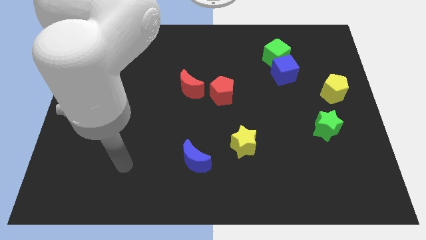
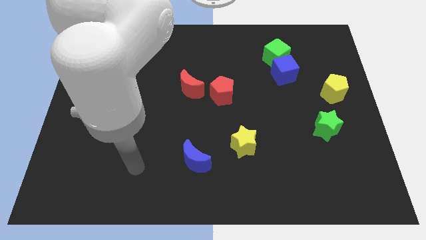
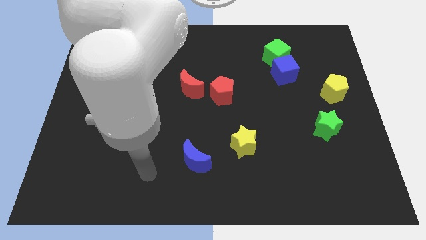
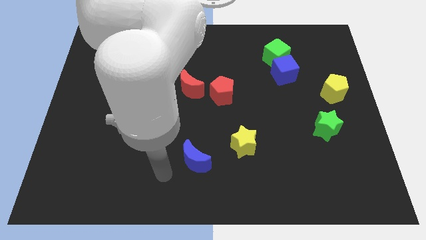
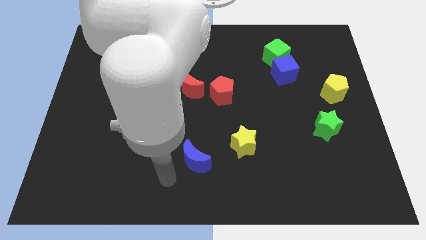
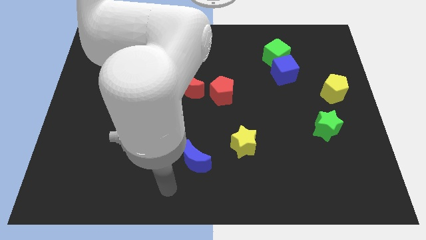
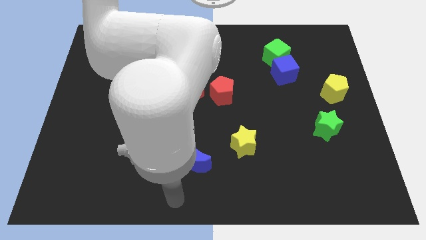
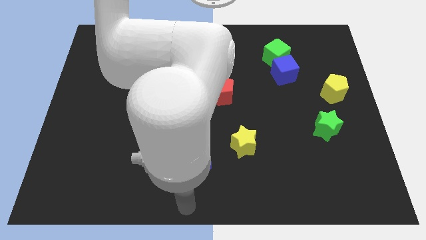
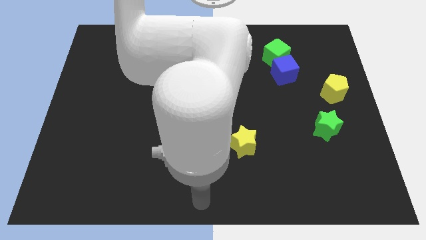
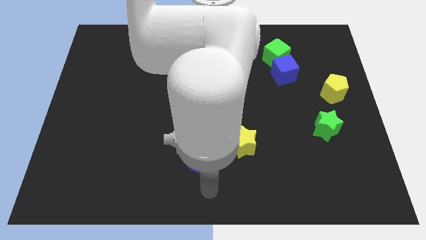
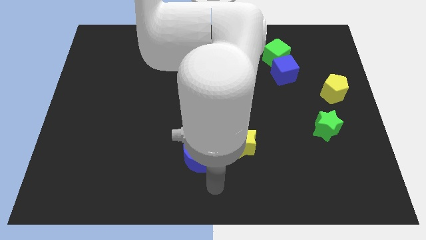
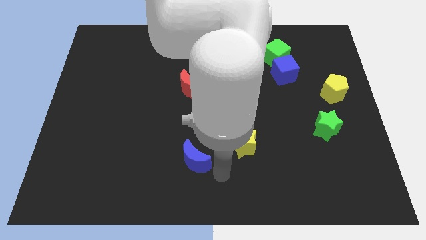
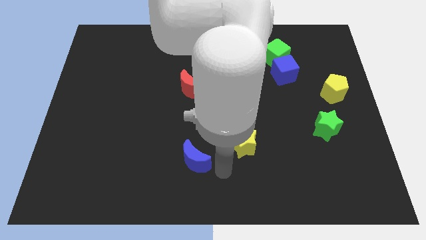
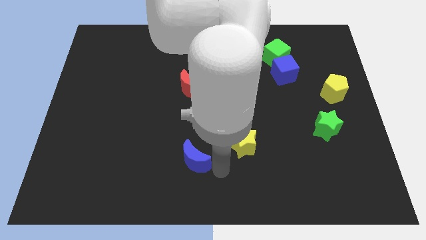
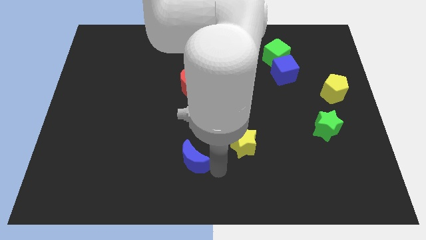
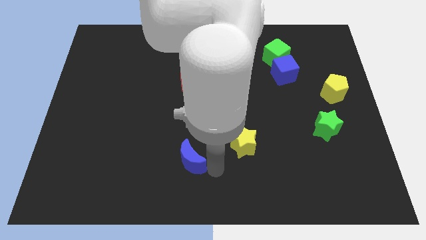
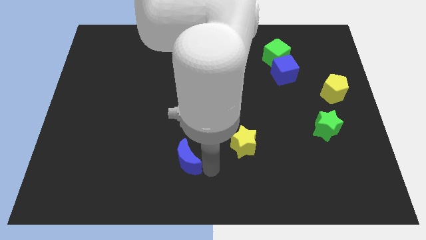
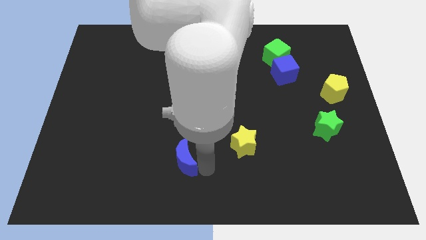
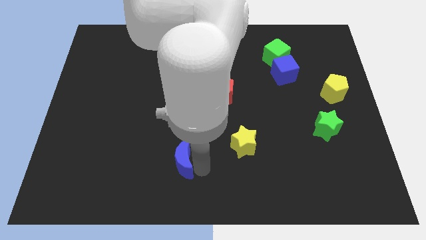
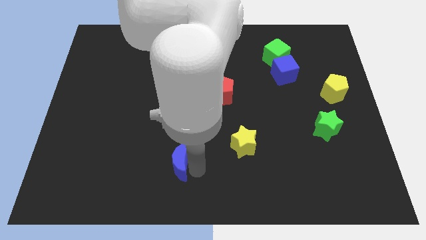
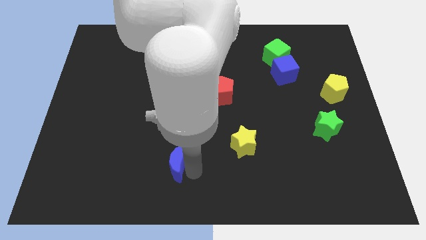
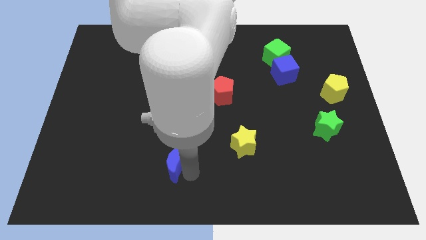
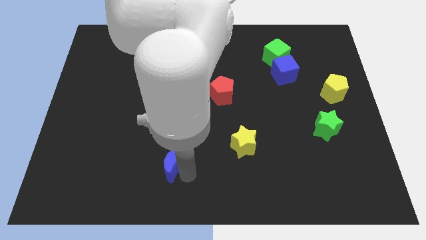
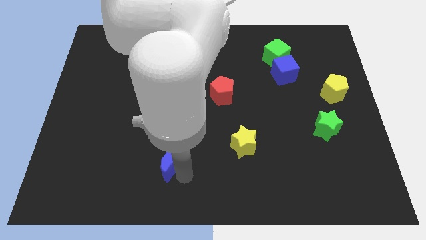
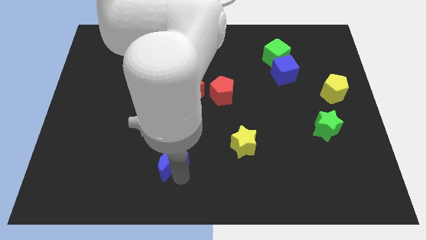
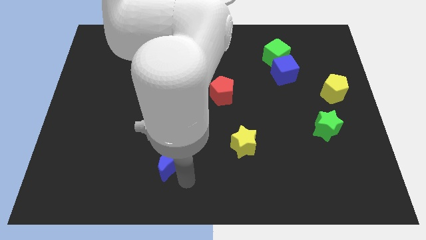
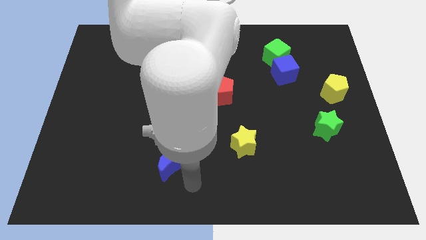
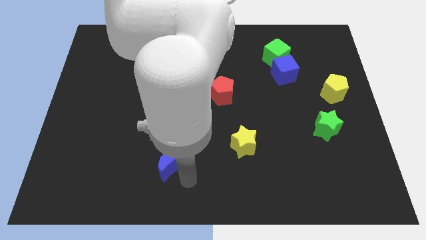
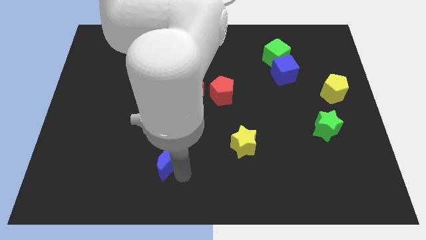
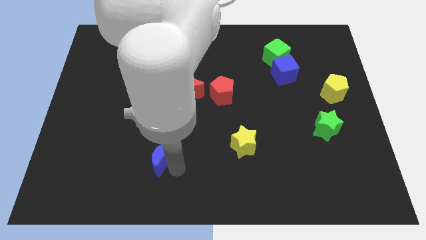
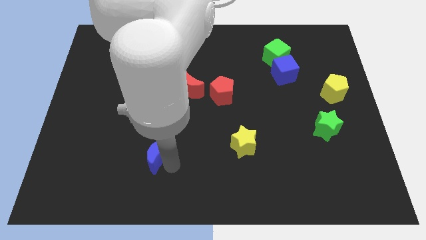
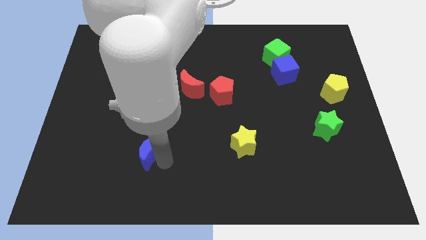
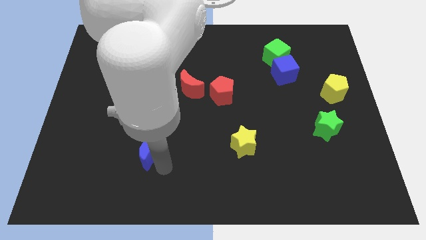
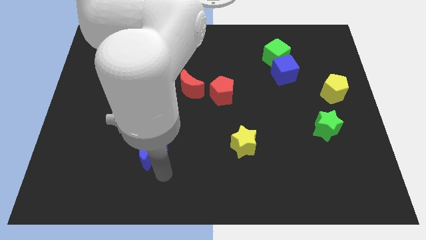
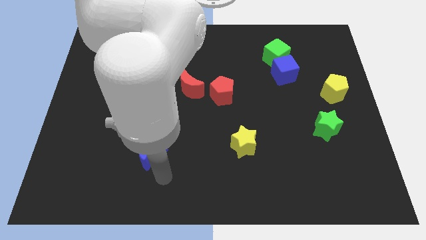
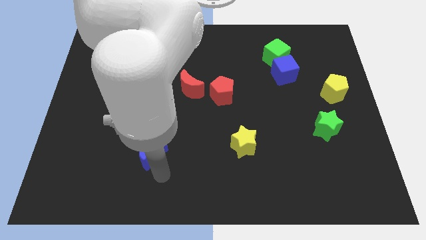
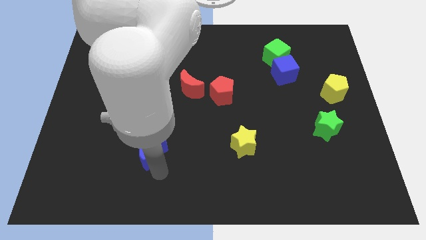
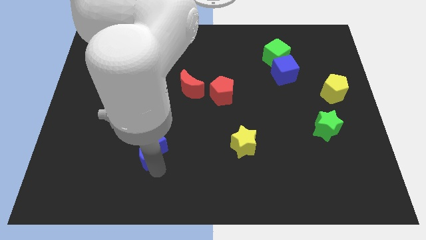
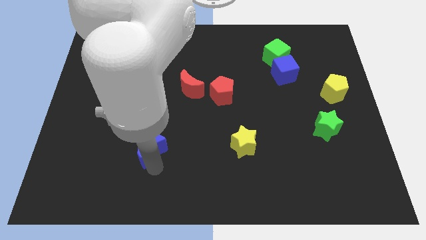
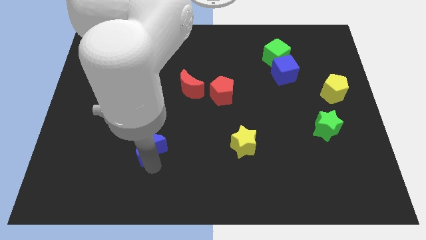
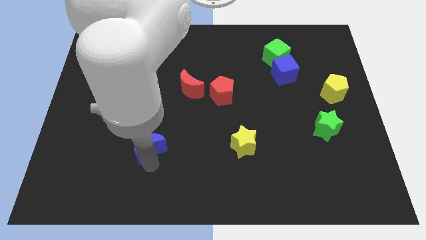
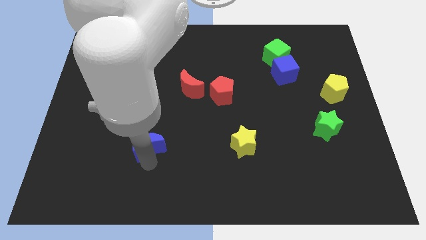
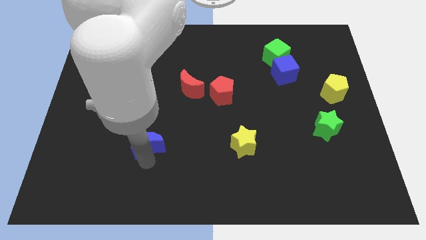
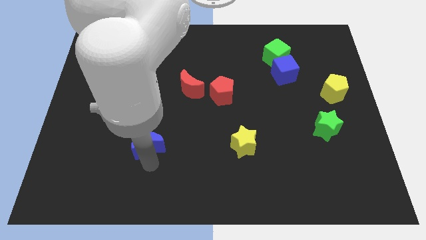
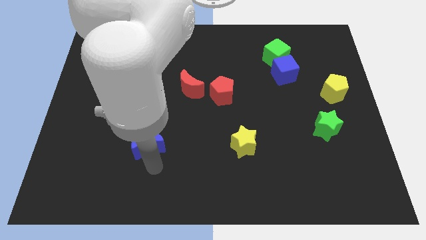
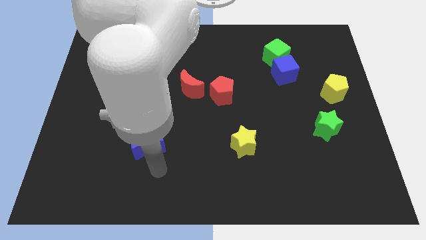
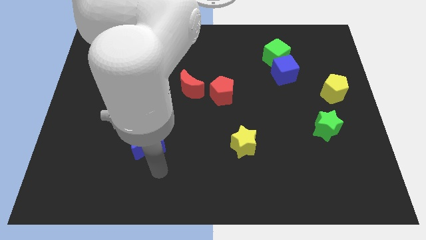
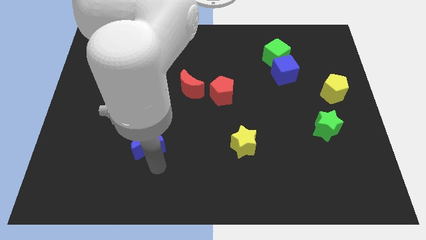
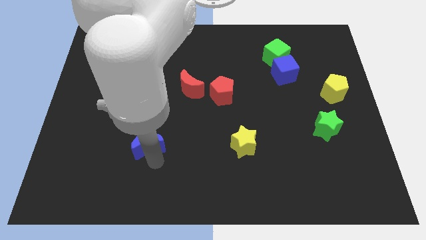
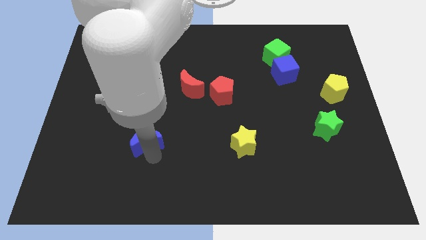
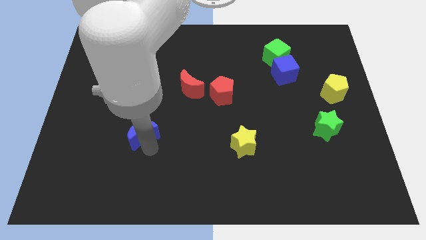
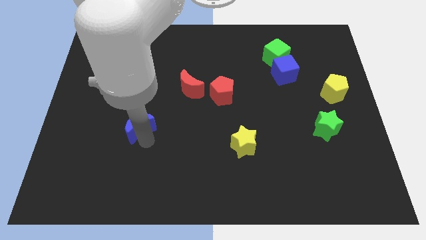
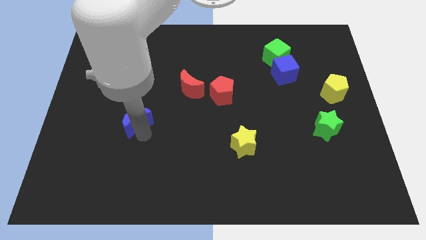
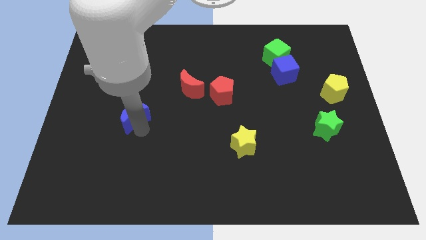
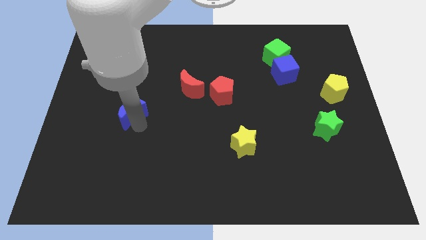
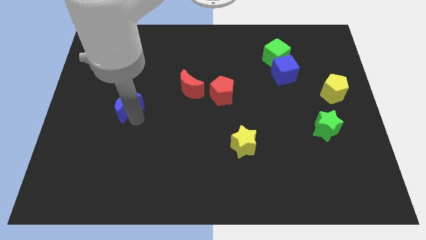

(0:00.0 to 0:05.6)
slide the blue moon diagonally upwards and left

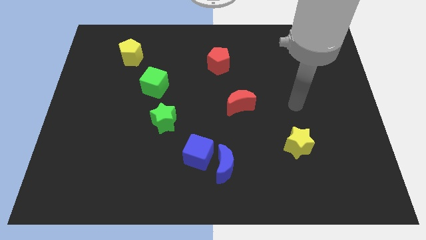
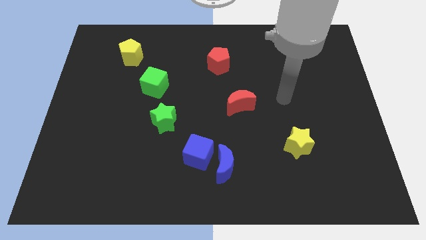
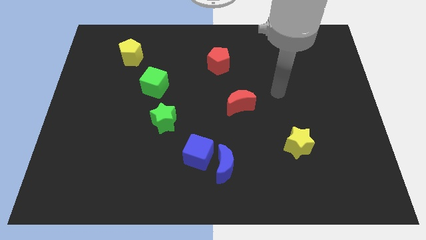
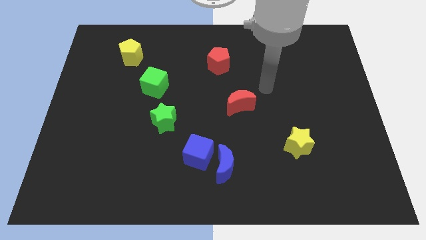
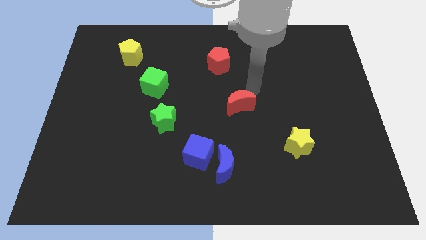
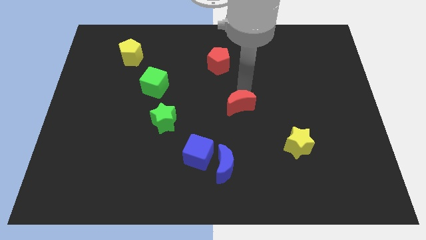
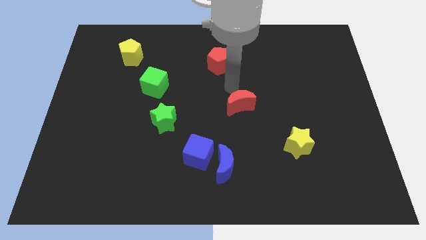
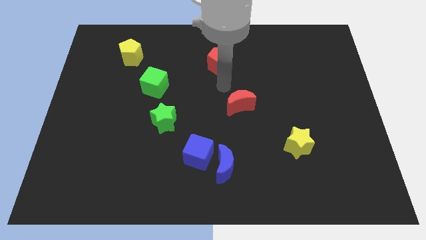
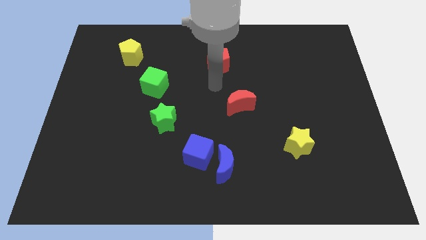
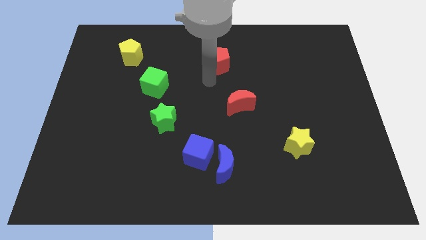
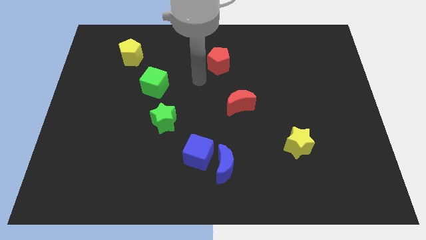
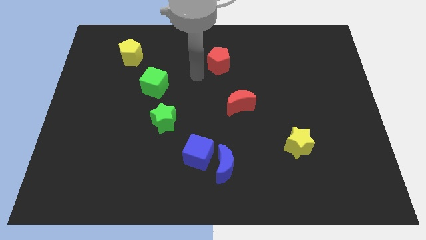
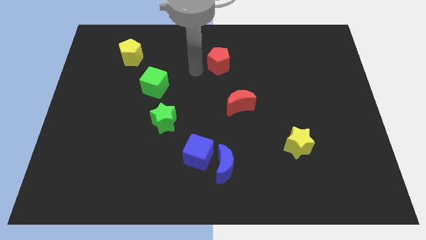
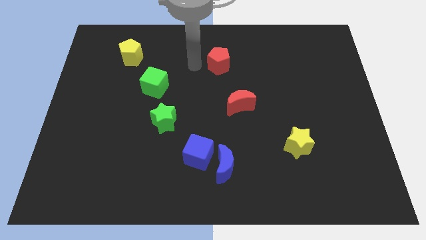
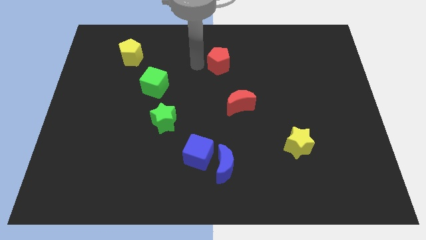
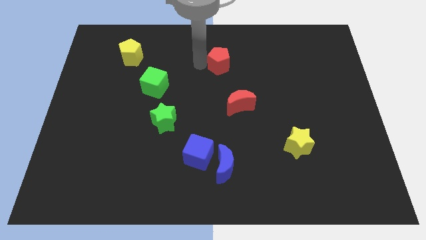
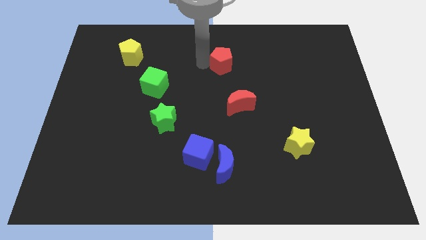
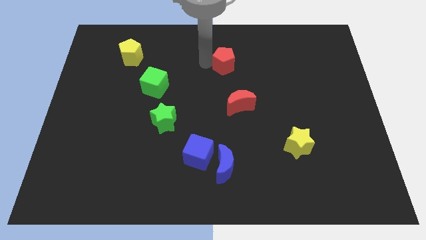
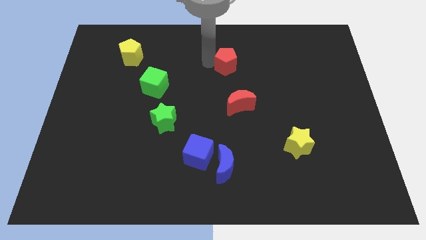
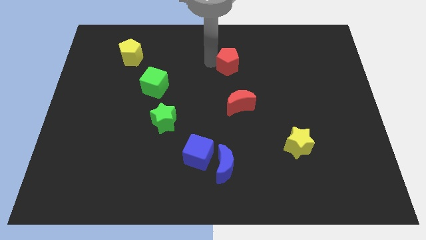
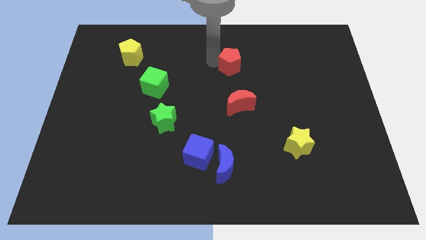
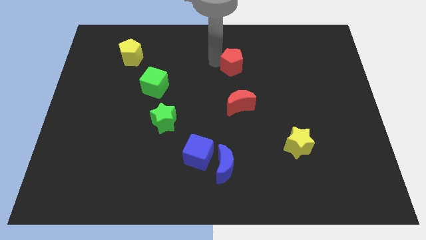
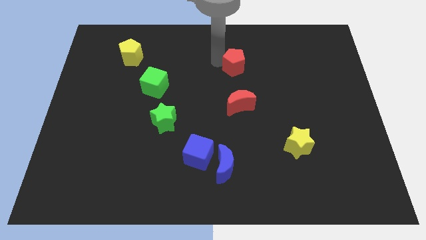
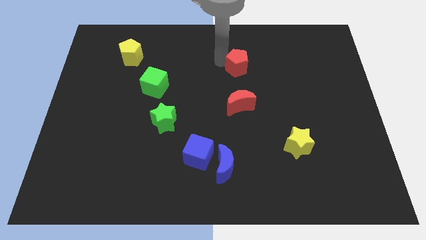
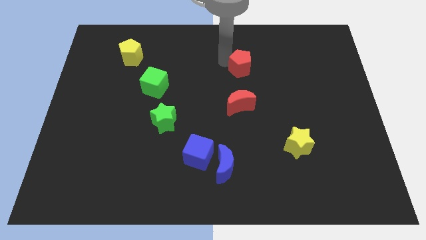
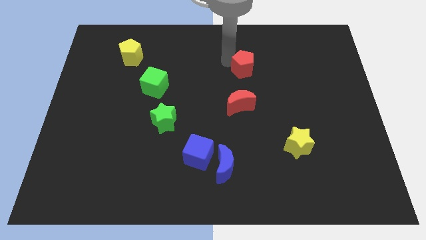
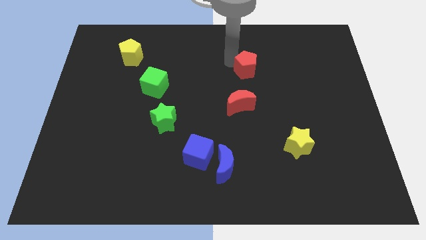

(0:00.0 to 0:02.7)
slightly slide the red pentagon right
